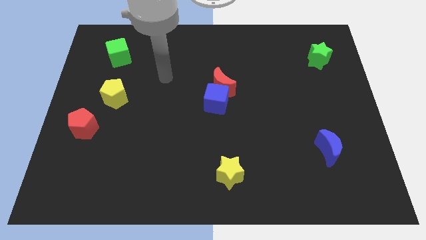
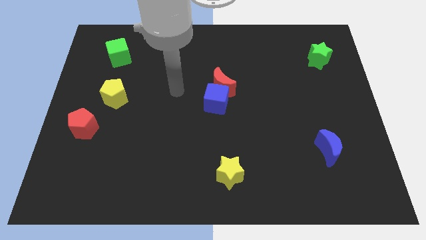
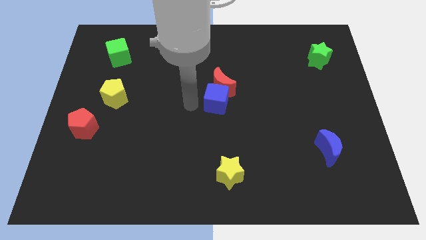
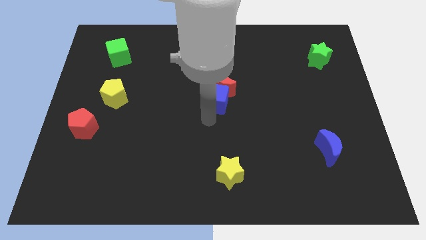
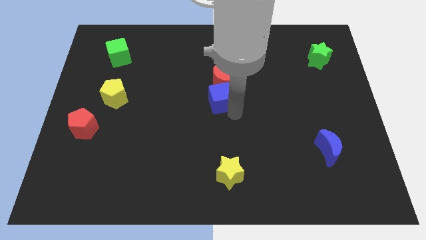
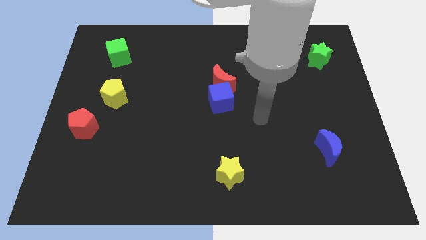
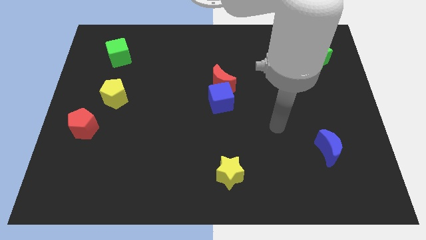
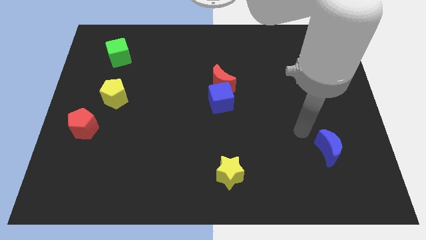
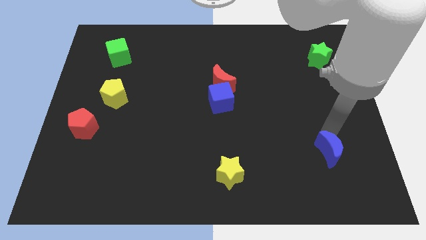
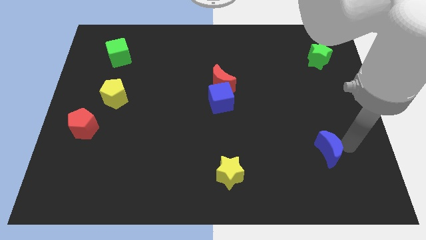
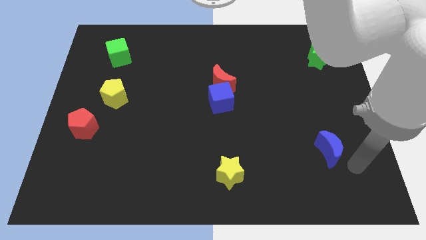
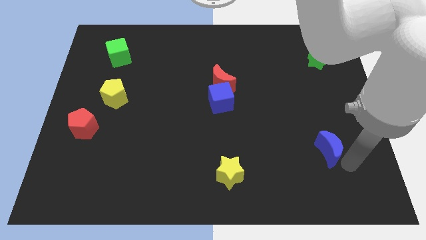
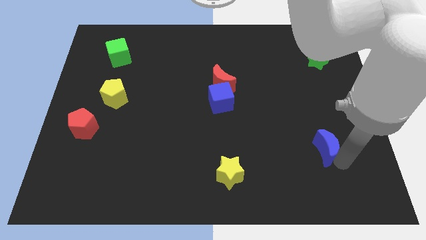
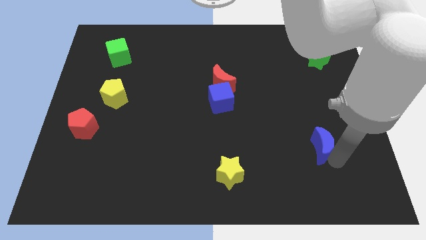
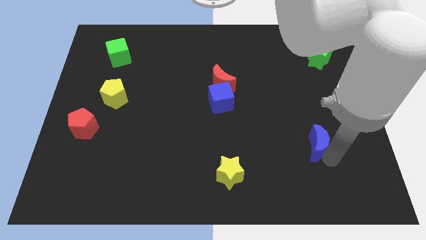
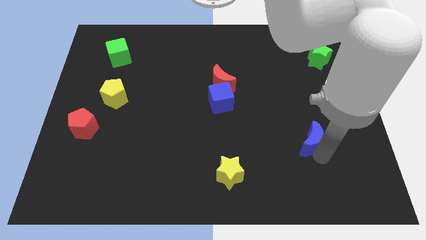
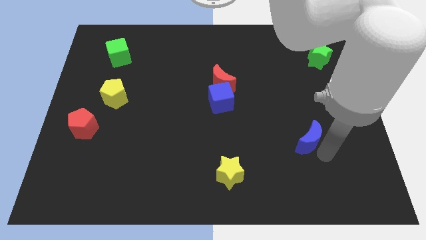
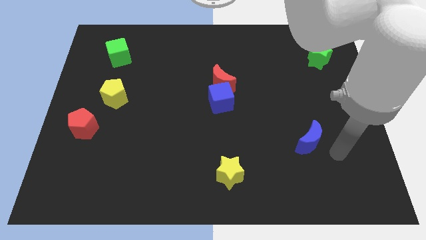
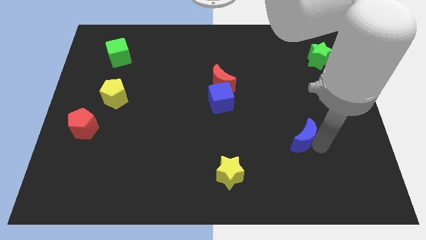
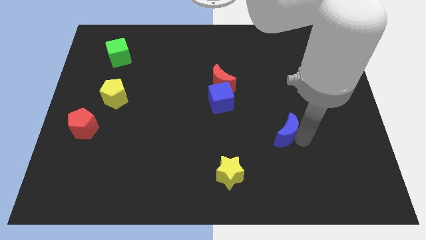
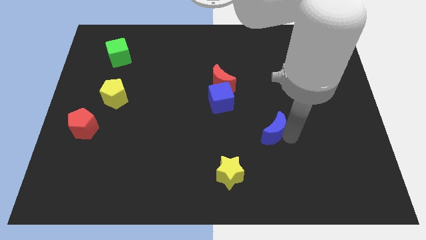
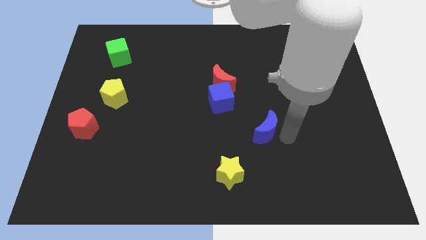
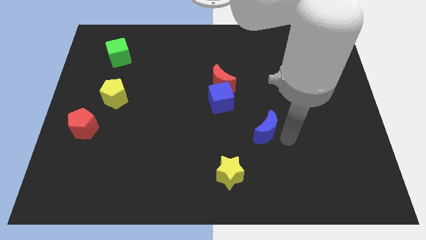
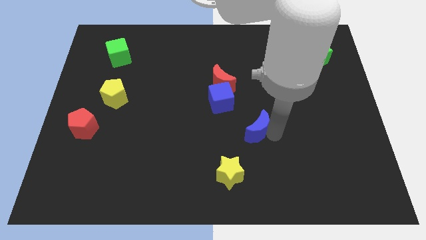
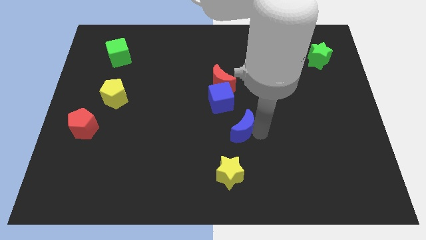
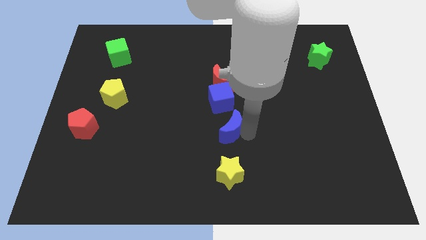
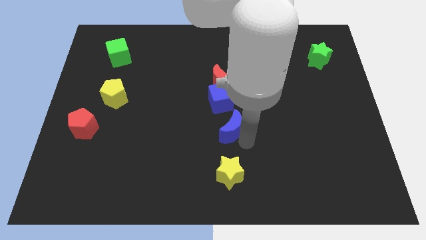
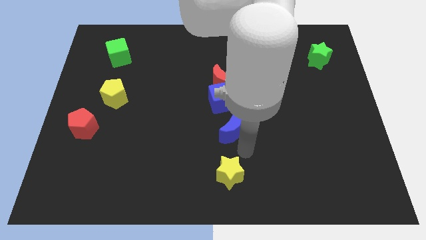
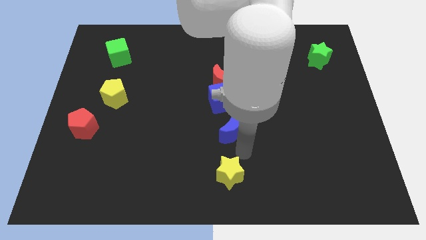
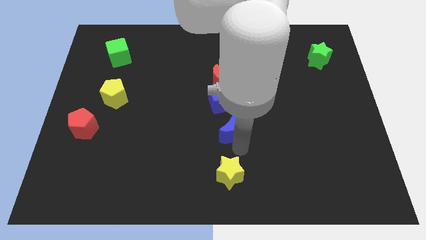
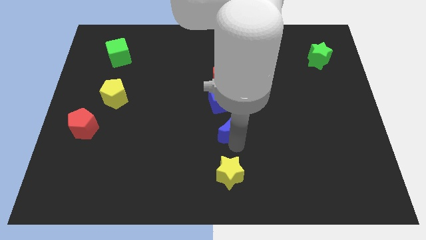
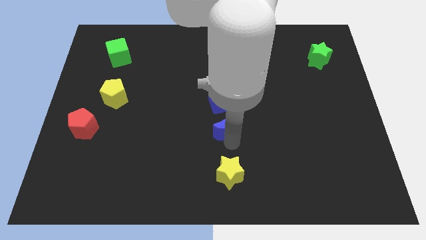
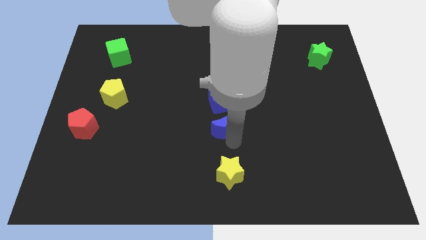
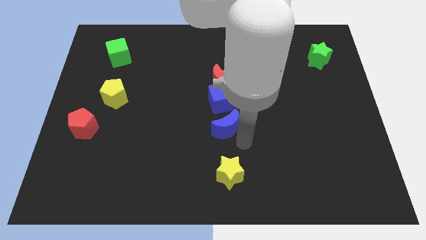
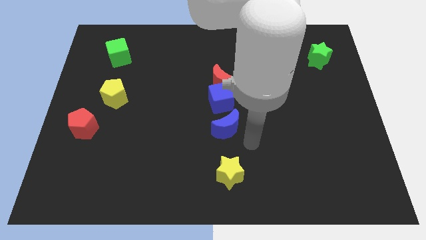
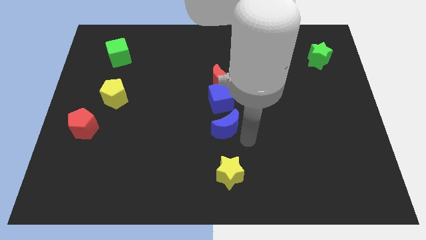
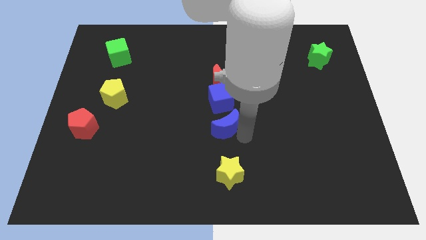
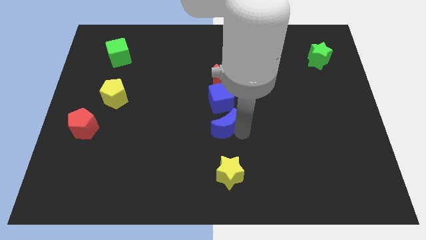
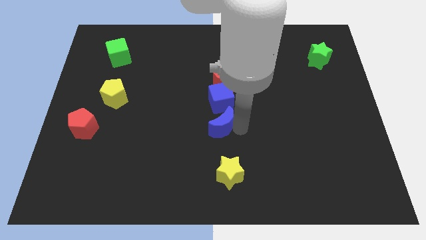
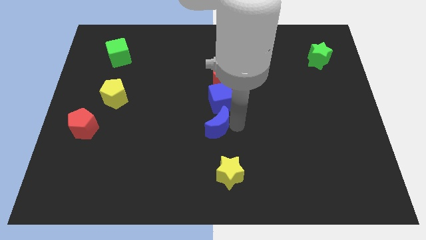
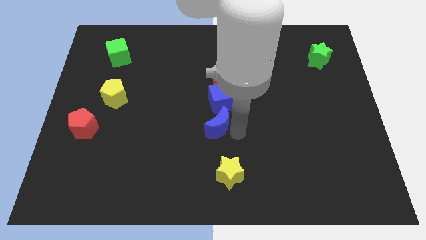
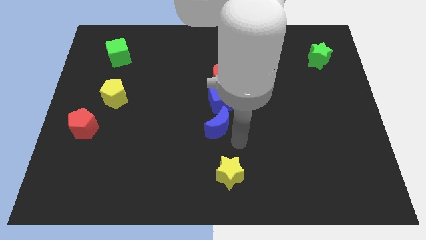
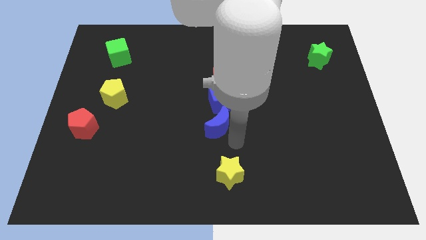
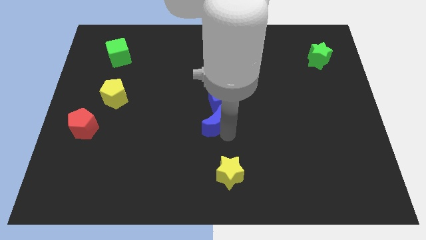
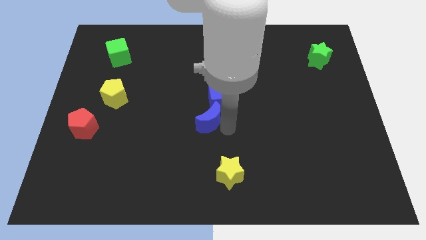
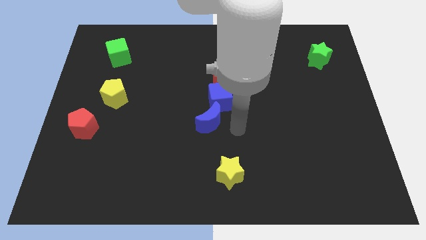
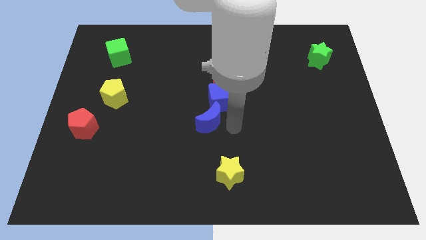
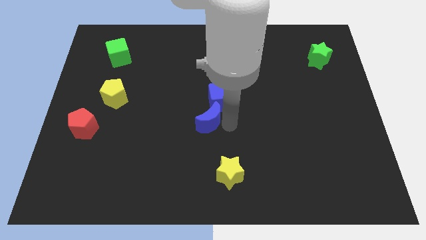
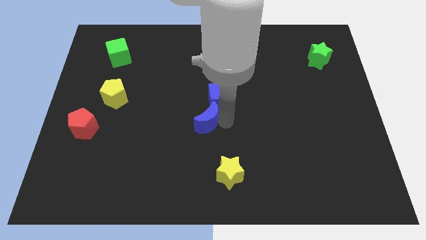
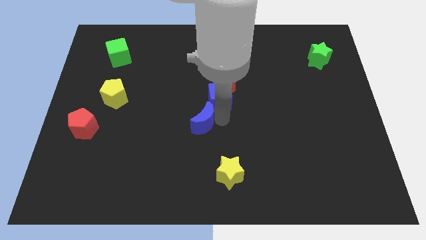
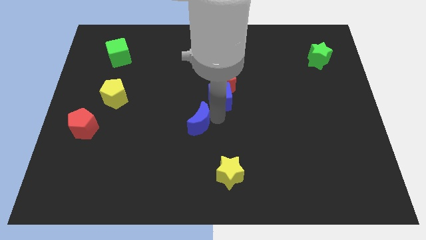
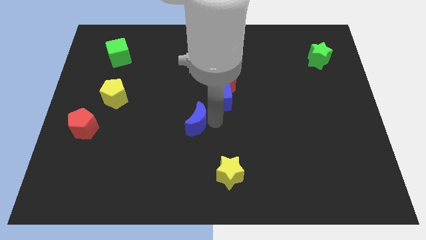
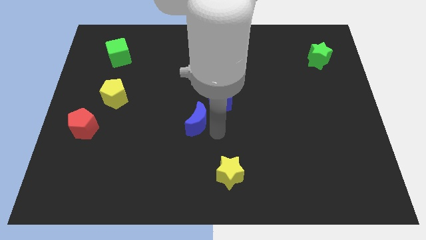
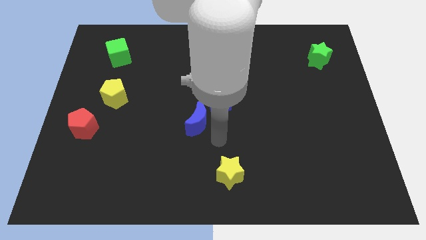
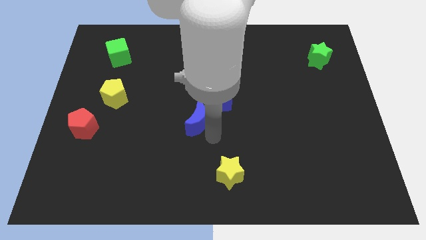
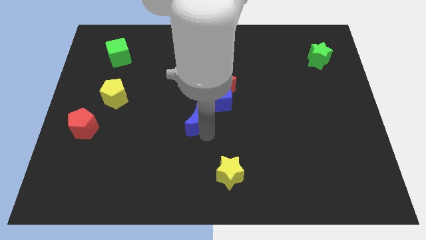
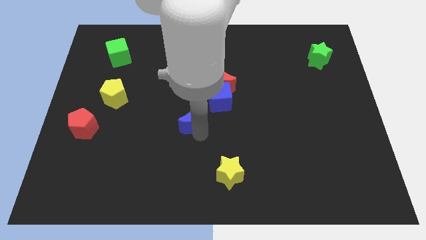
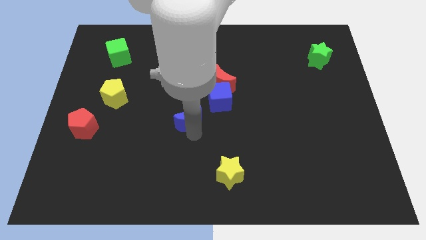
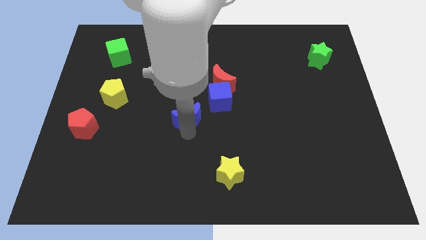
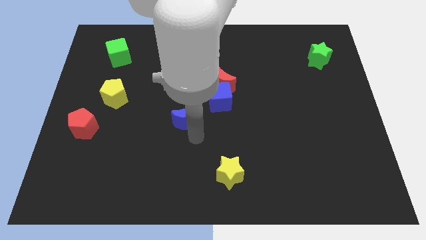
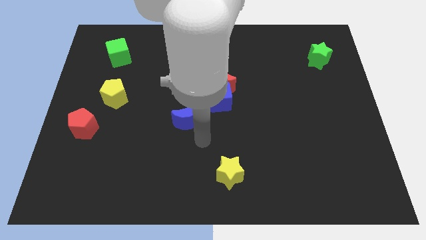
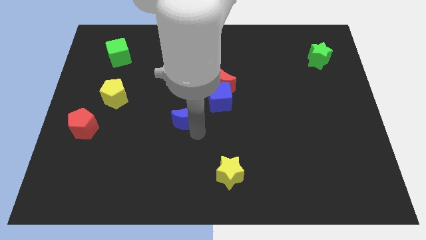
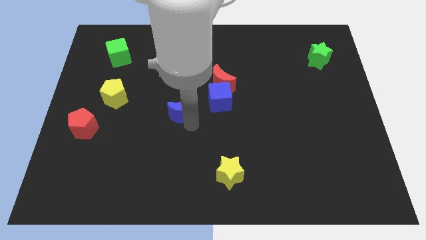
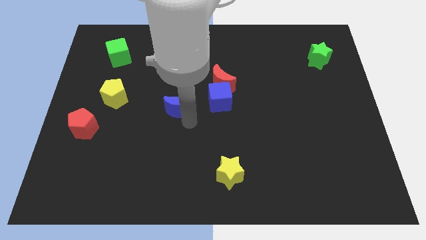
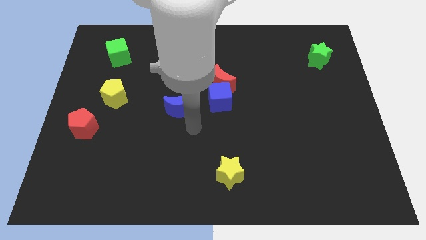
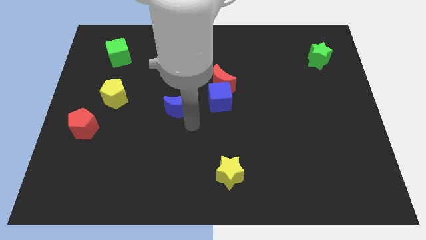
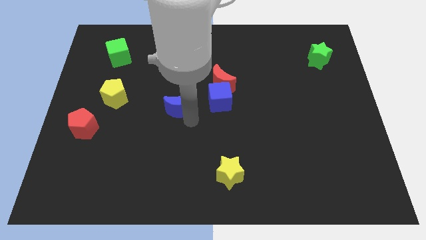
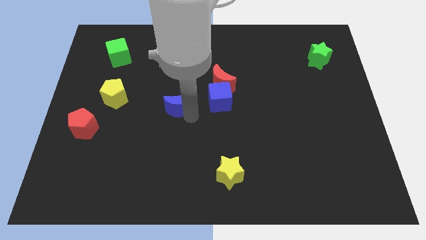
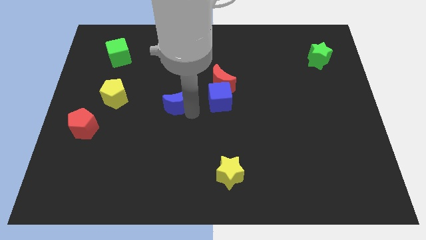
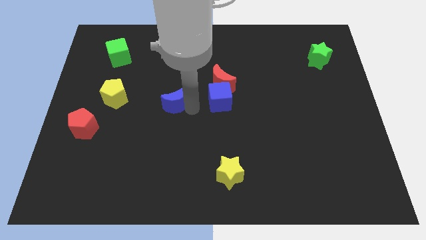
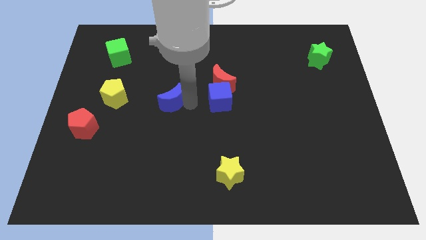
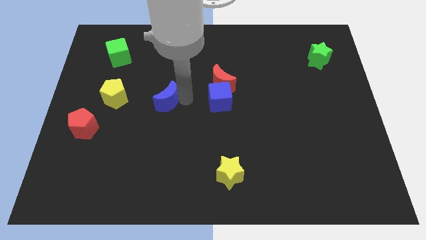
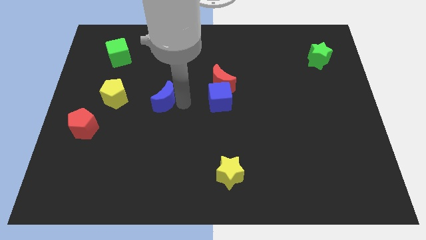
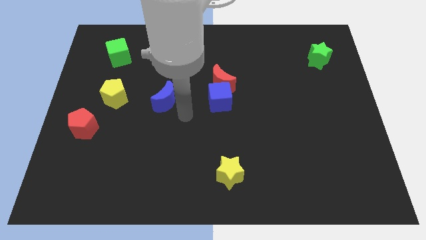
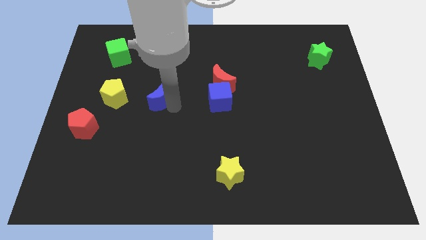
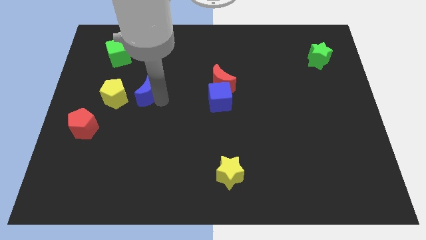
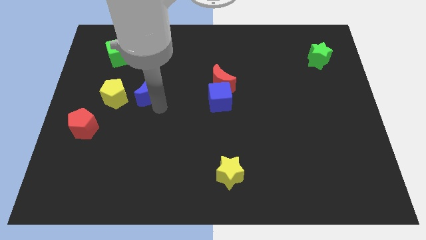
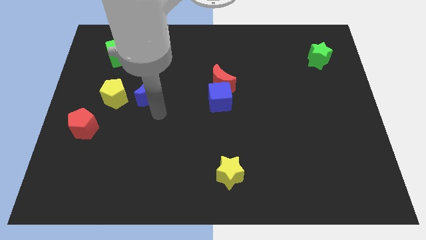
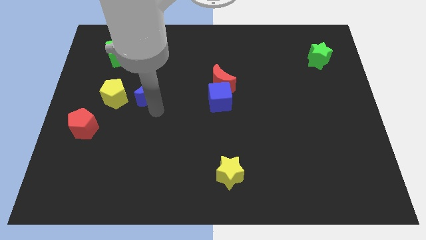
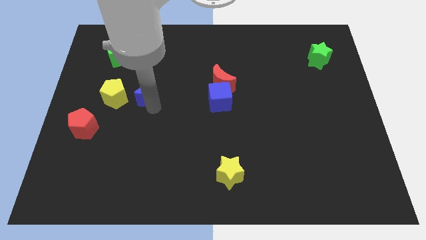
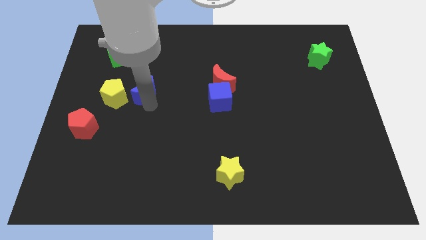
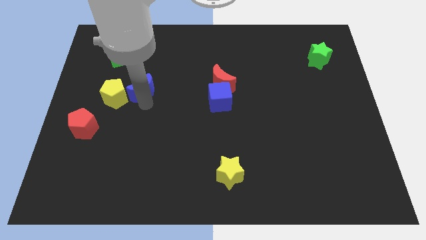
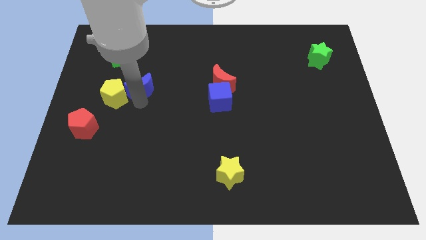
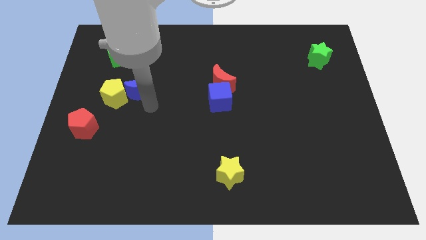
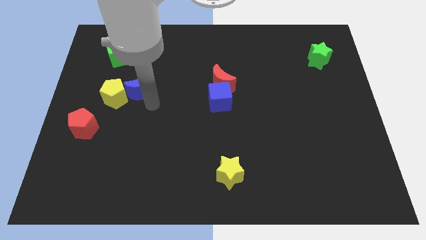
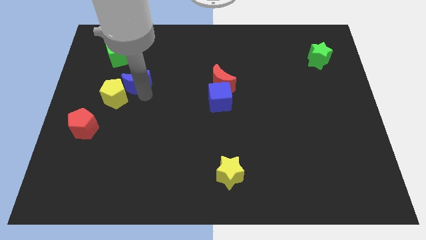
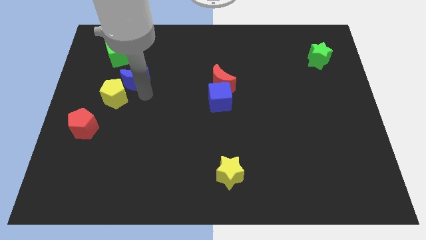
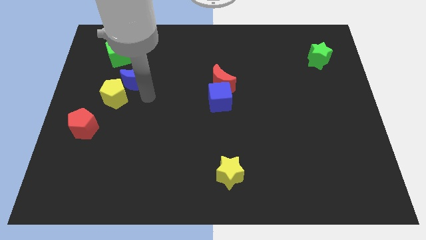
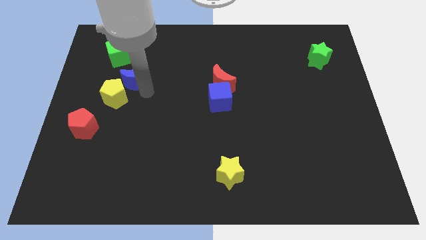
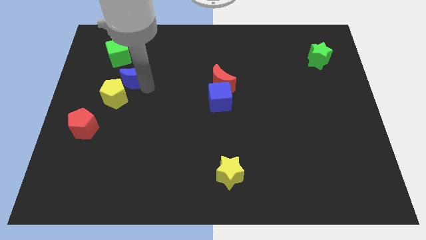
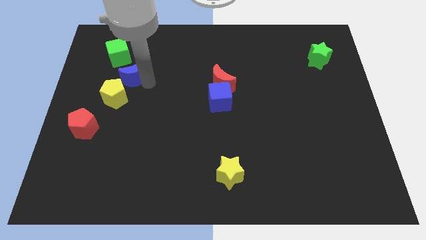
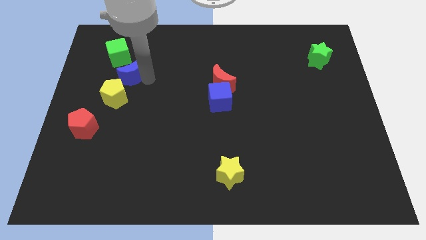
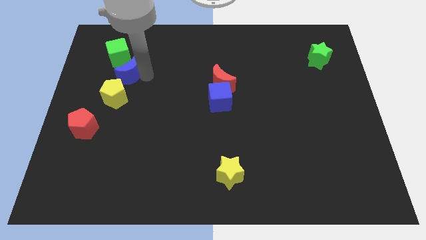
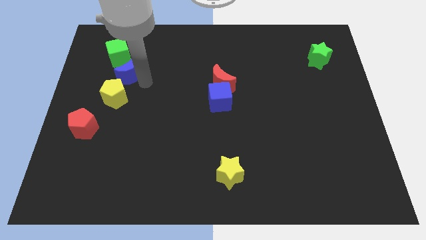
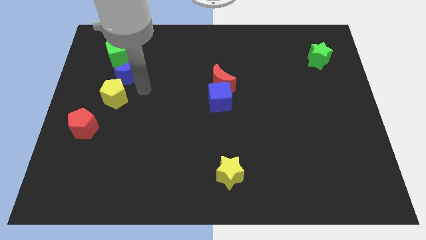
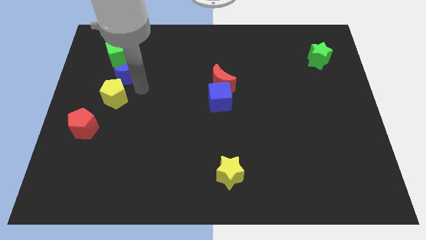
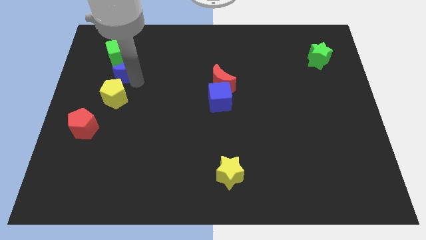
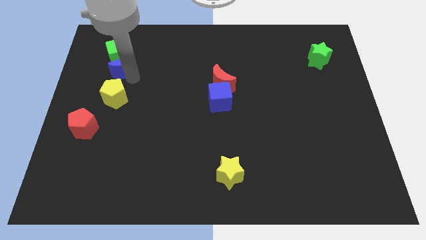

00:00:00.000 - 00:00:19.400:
push the blue moon next to the green cube
